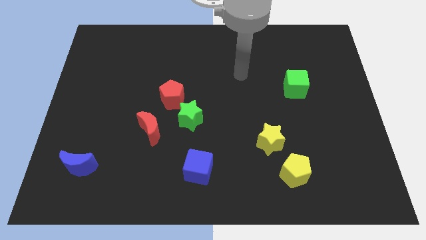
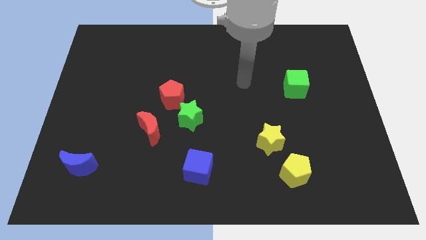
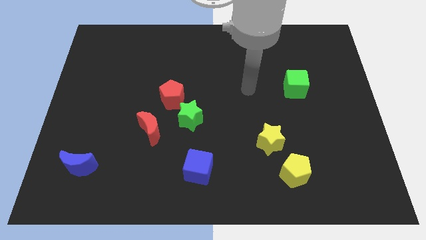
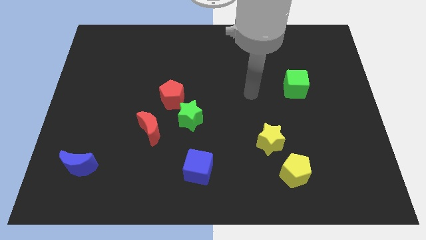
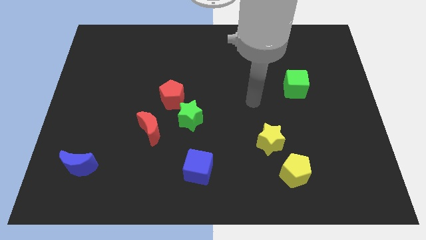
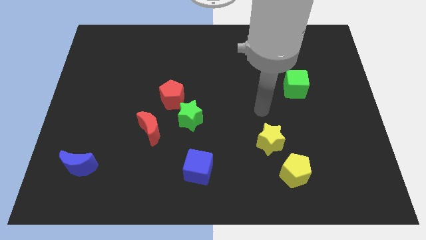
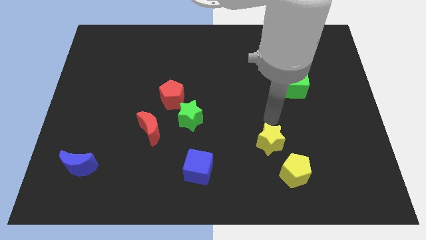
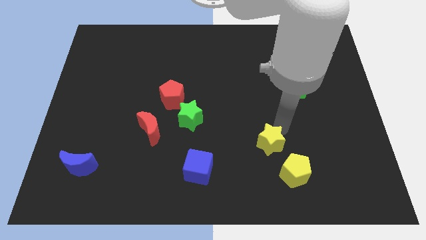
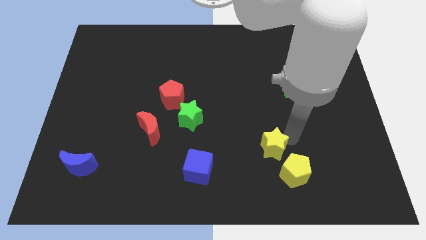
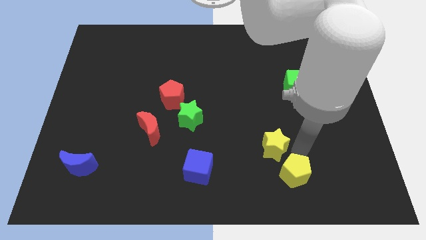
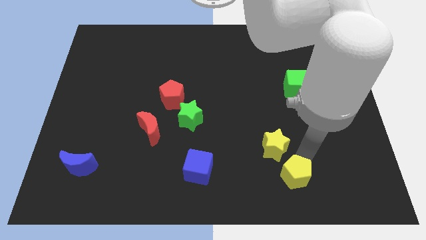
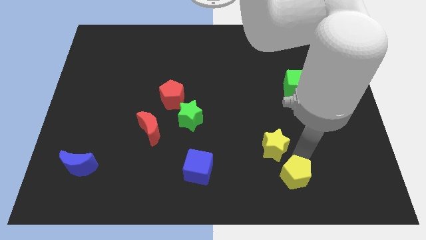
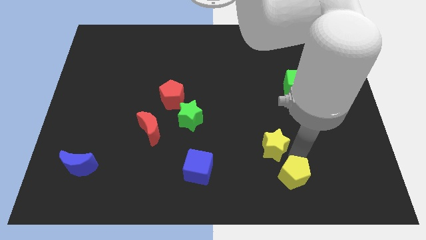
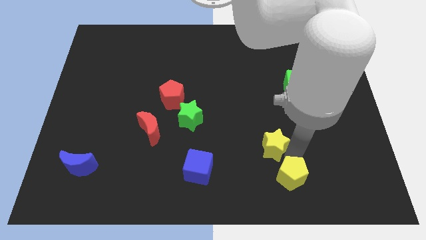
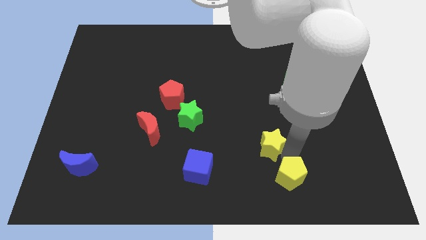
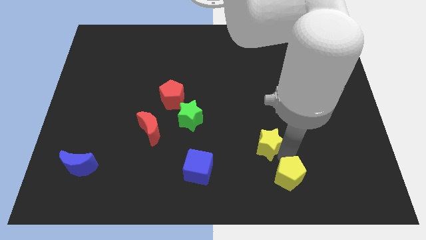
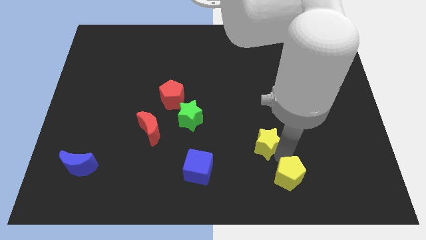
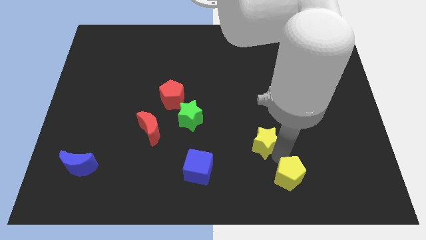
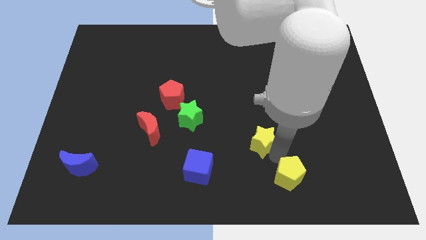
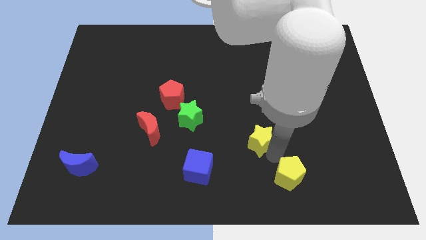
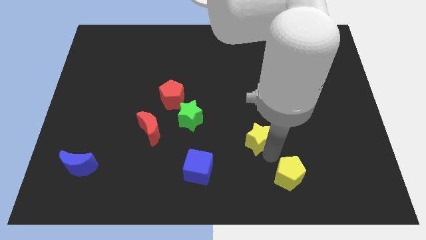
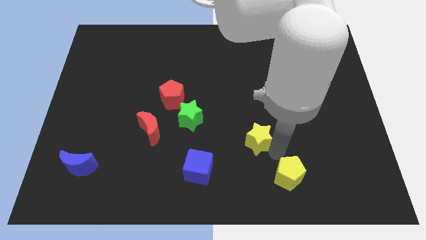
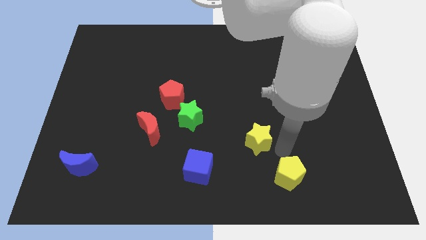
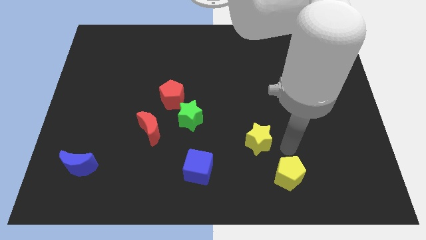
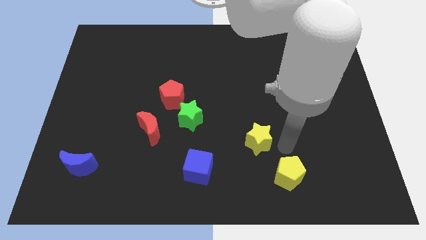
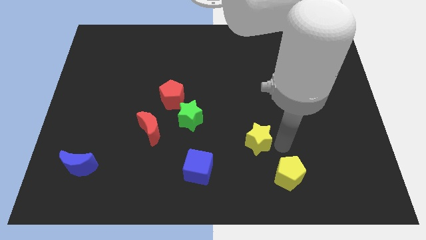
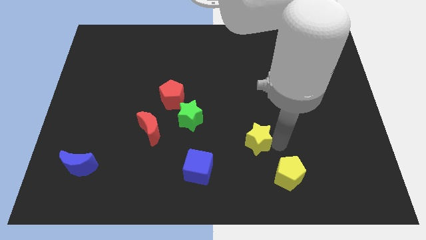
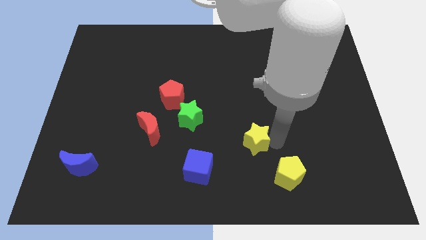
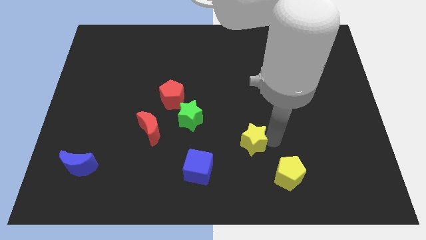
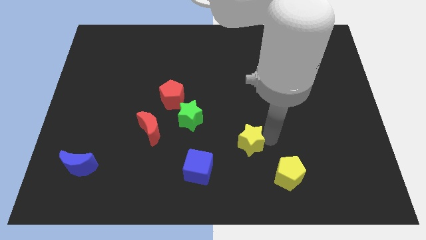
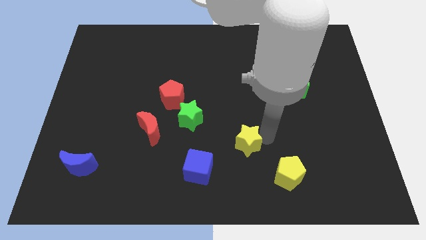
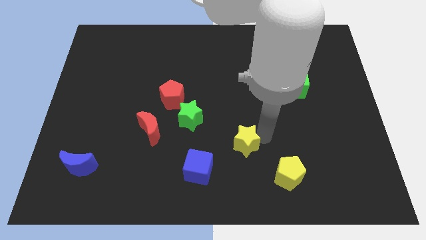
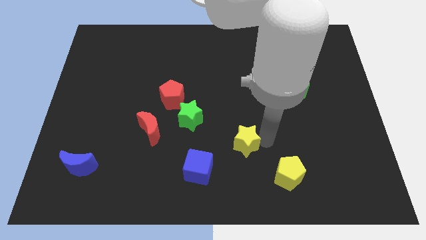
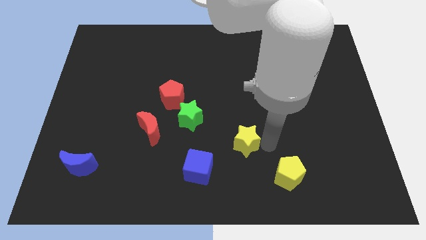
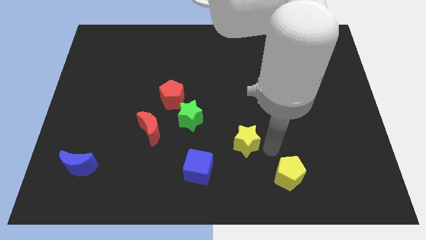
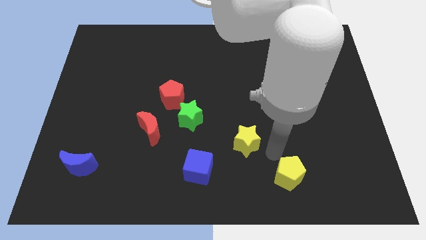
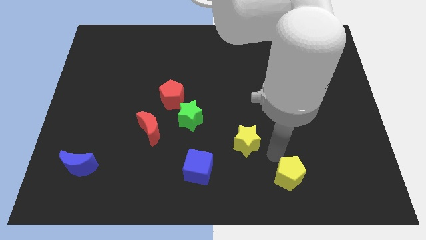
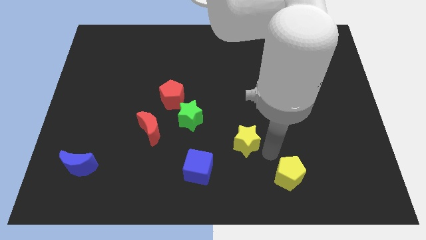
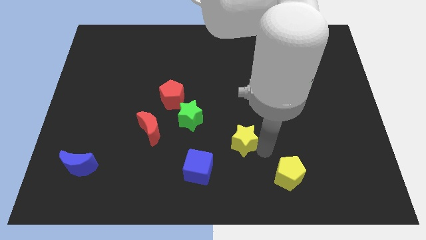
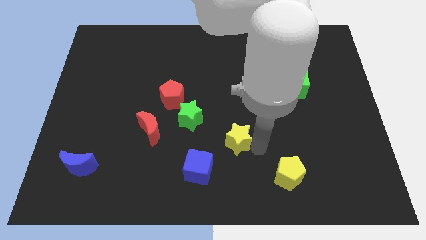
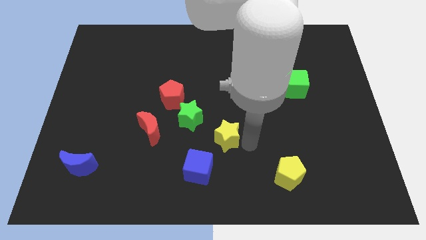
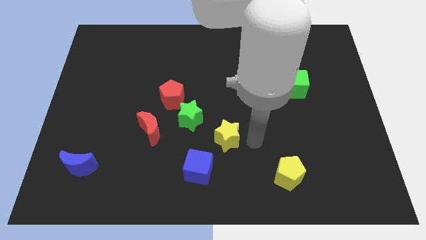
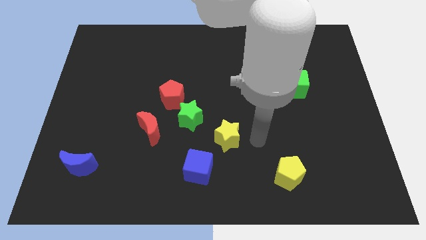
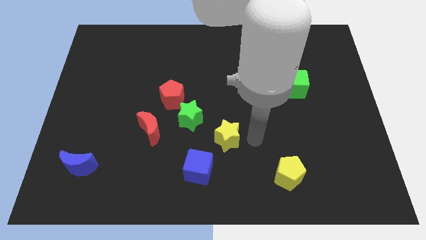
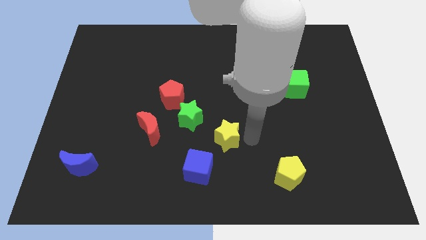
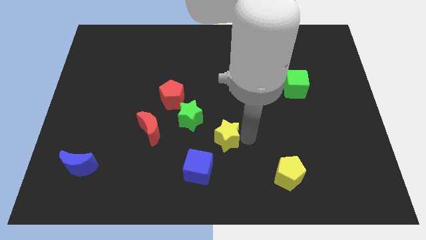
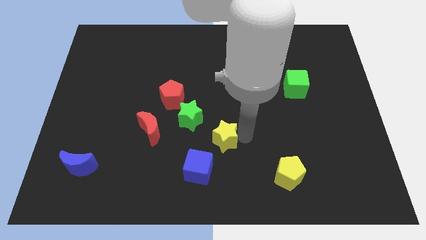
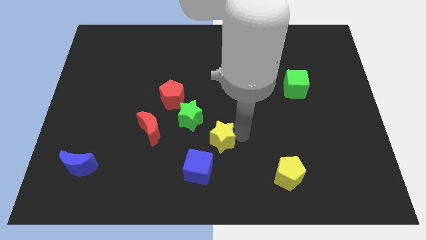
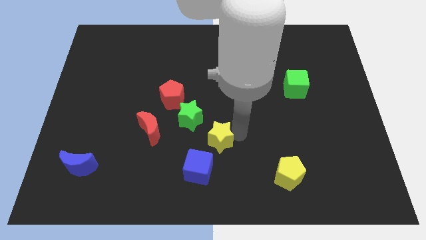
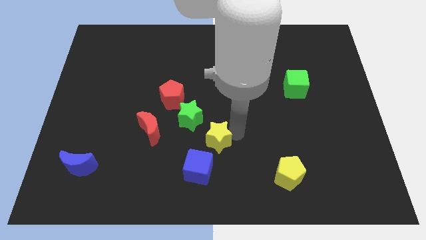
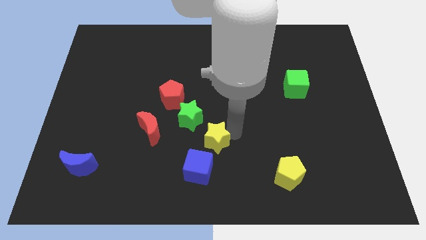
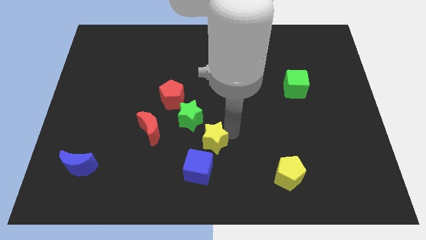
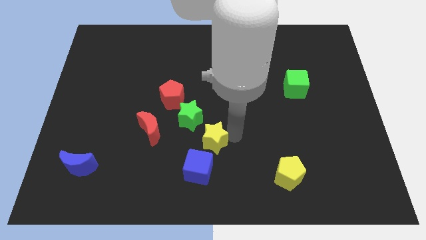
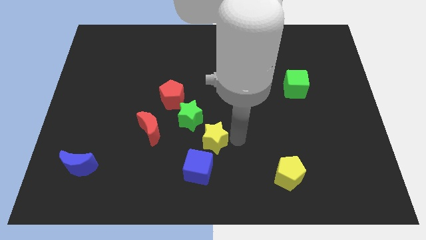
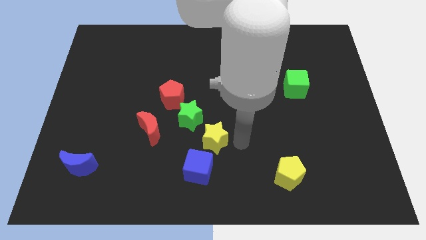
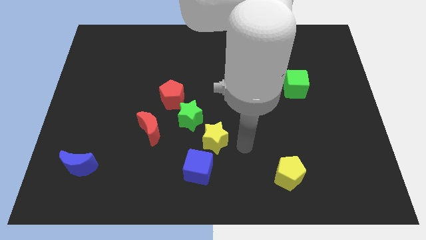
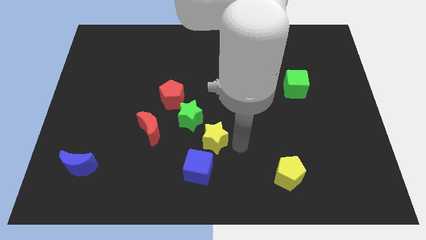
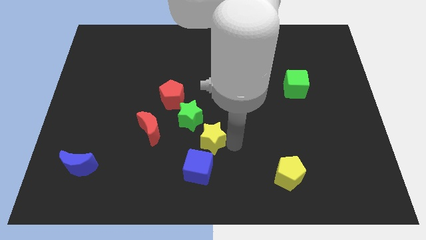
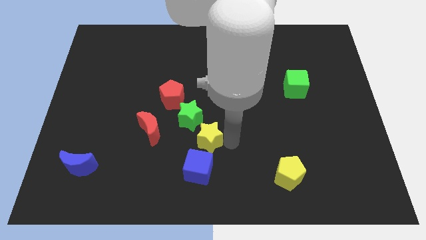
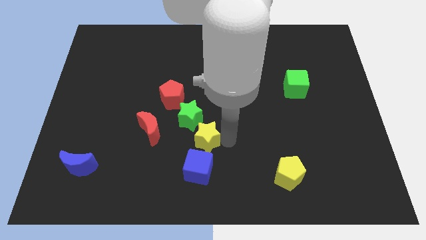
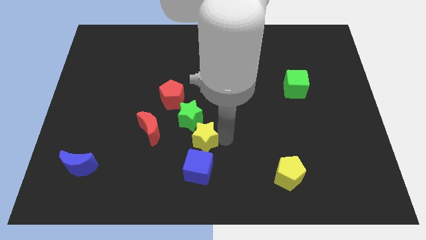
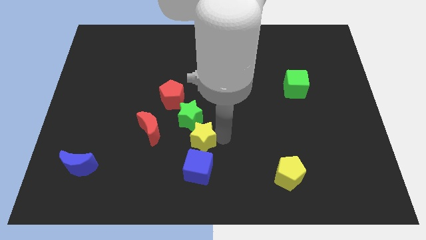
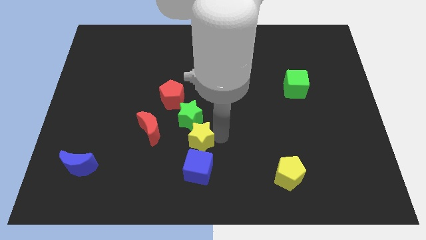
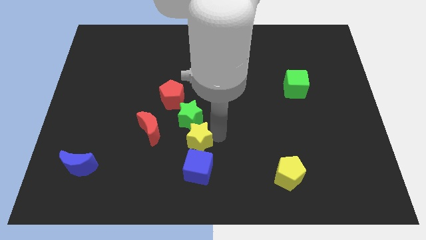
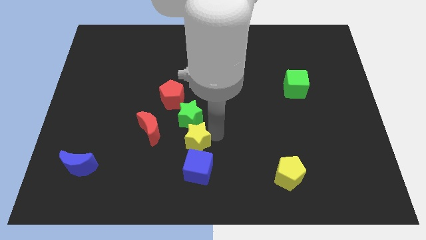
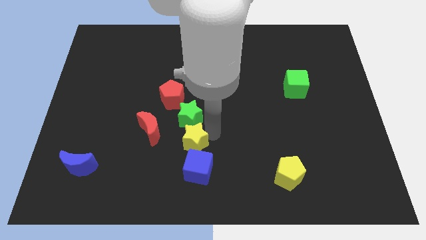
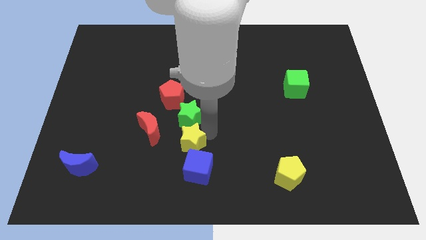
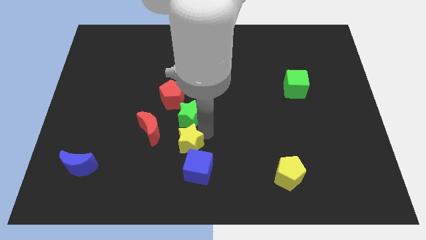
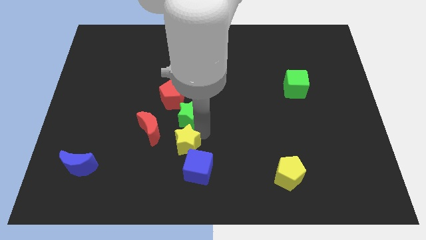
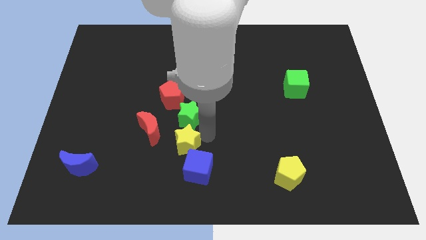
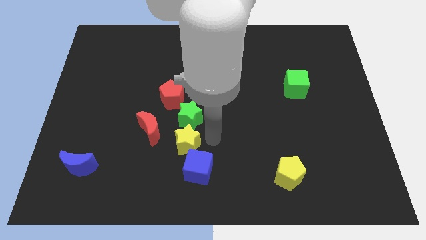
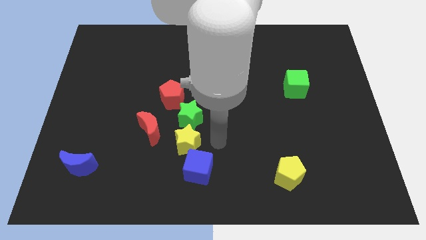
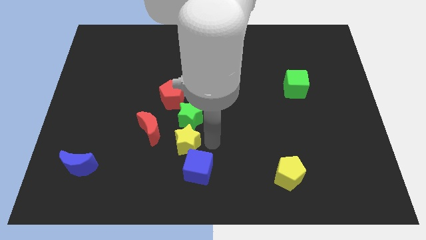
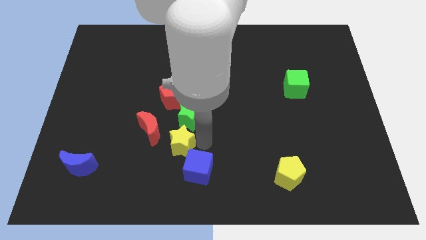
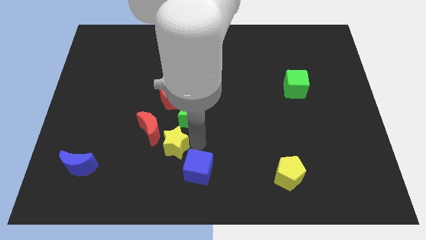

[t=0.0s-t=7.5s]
slide the yellow star left

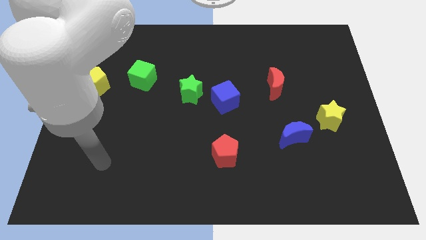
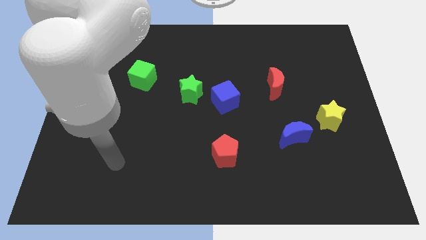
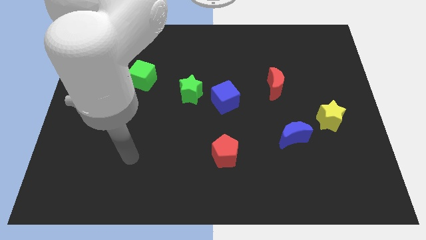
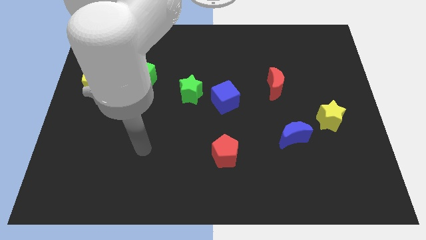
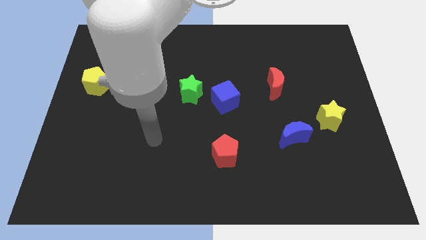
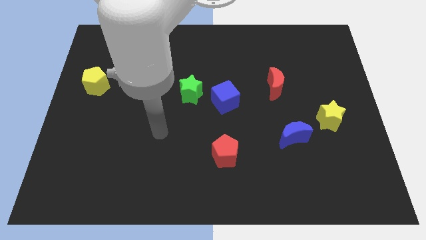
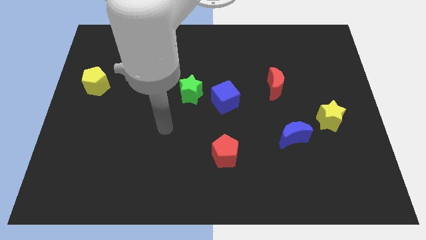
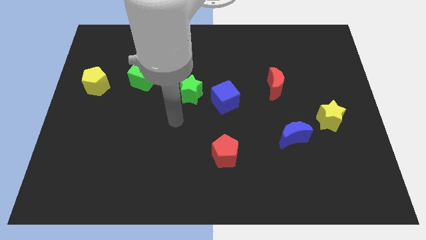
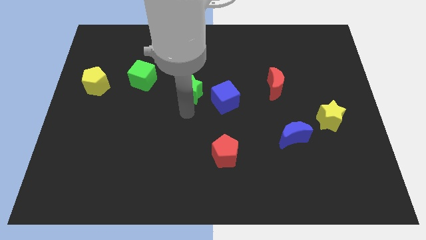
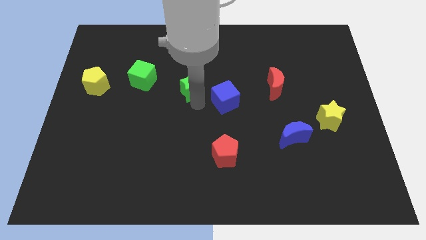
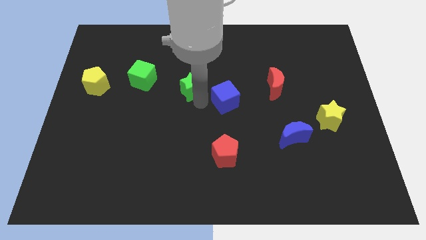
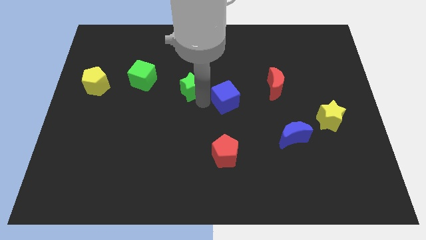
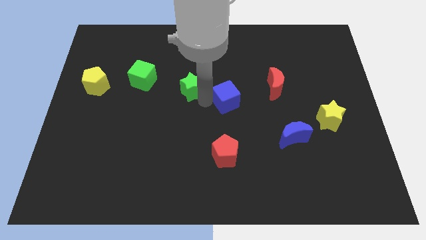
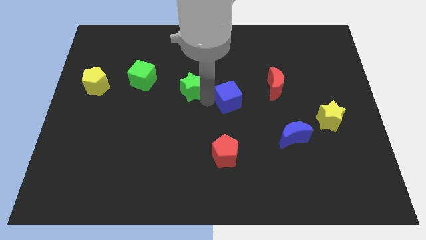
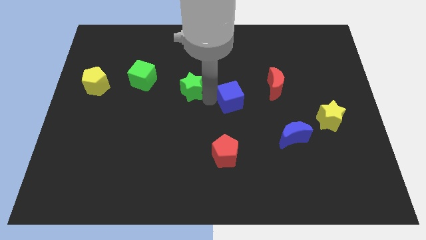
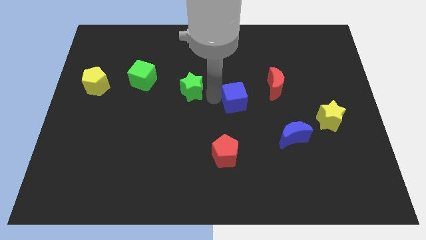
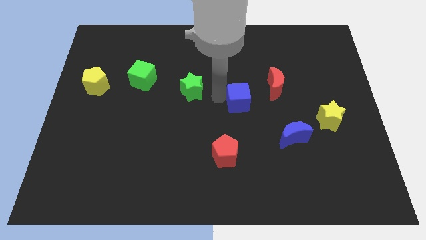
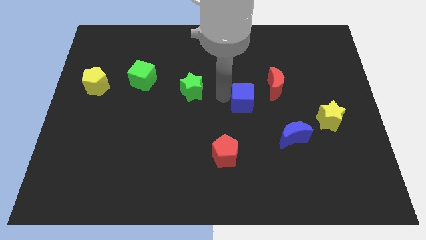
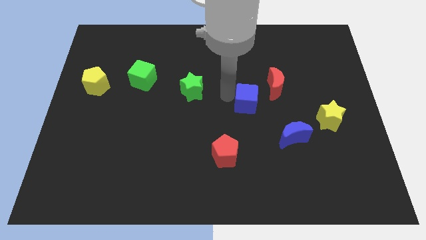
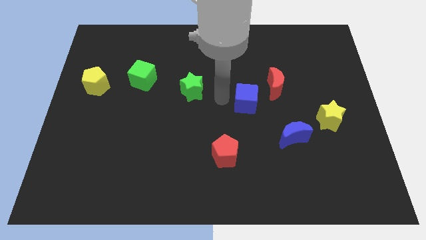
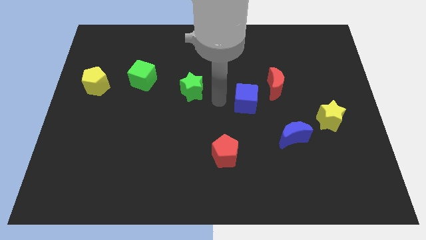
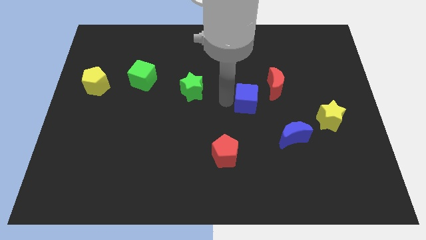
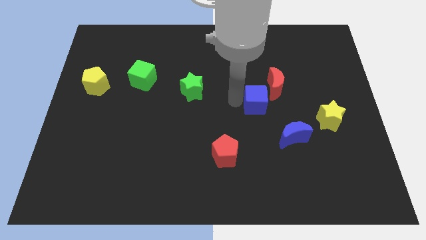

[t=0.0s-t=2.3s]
slide the blue cube right a little
